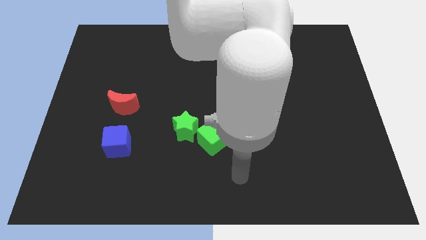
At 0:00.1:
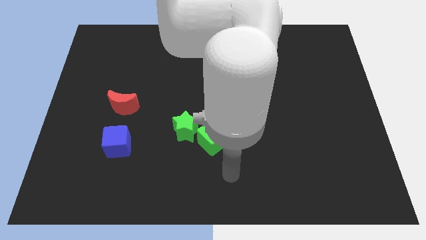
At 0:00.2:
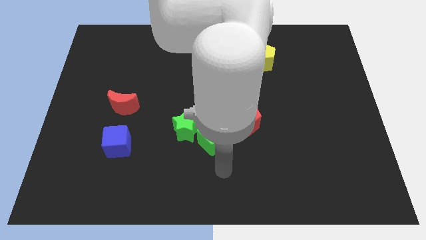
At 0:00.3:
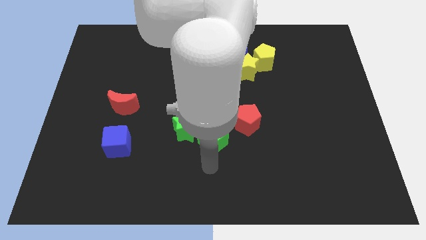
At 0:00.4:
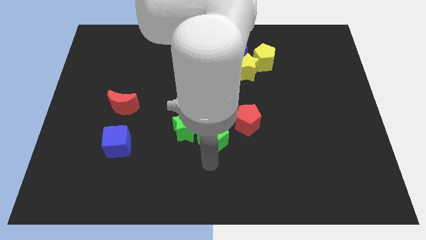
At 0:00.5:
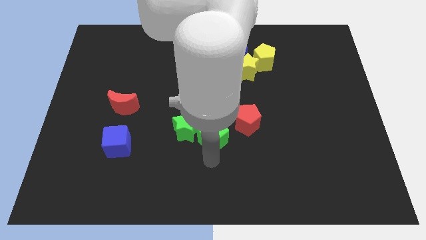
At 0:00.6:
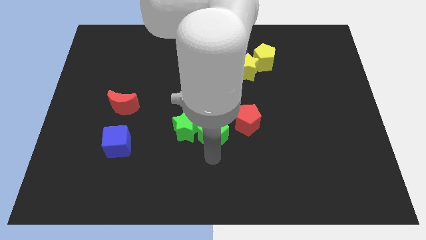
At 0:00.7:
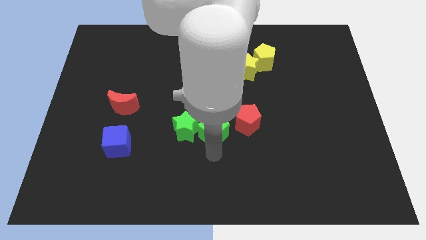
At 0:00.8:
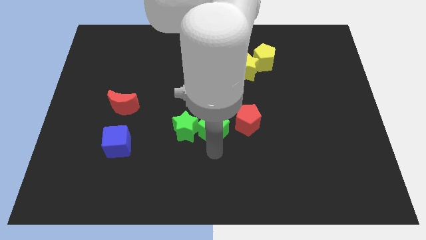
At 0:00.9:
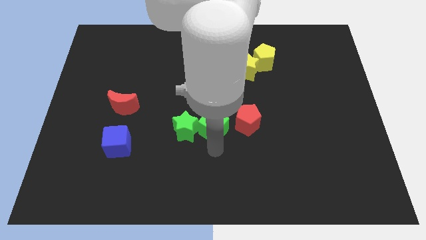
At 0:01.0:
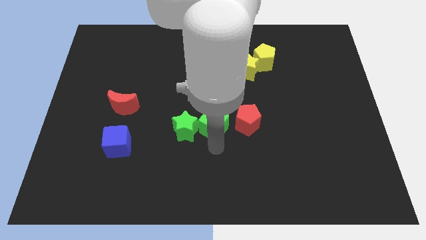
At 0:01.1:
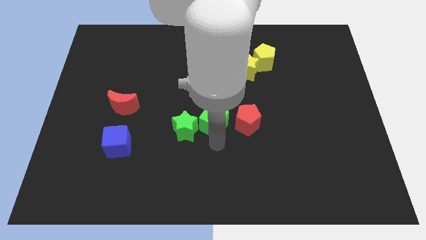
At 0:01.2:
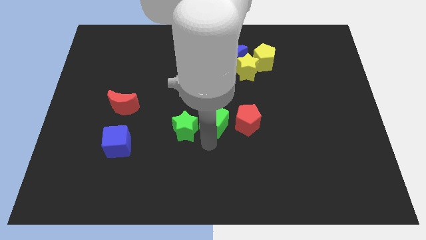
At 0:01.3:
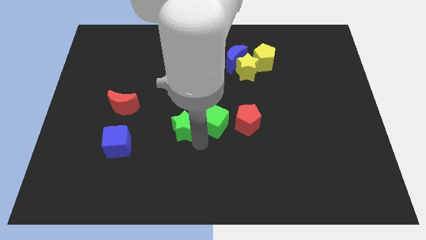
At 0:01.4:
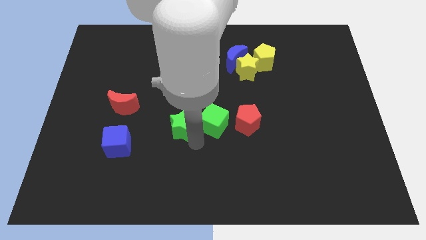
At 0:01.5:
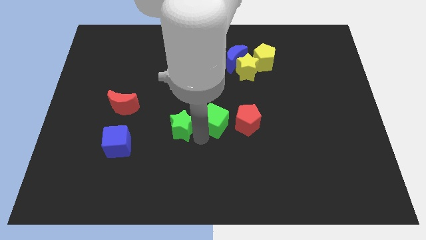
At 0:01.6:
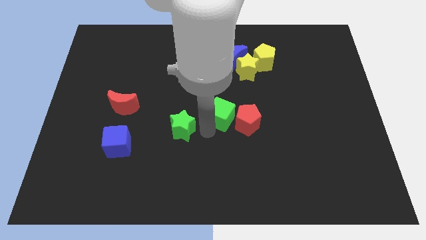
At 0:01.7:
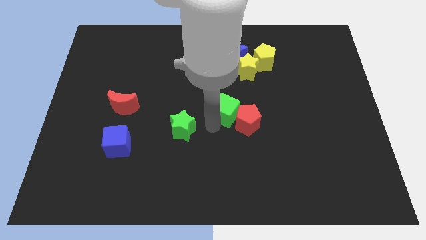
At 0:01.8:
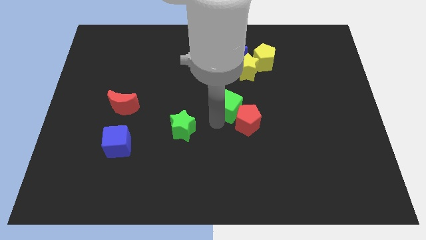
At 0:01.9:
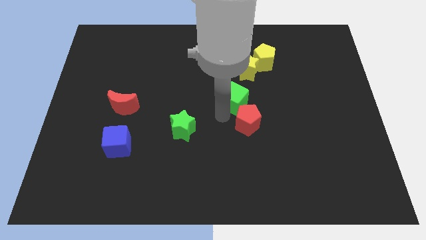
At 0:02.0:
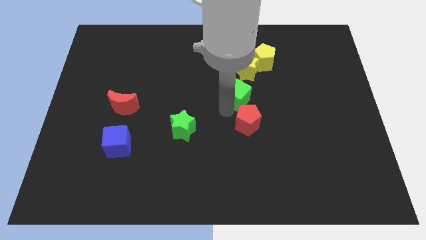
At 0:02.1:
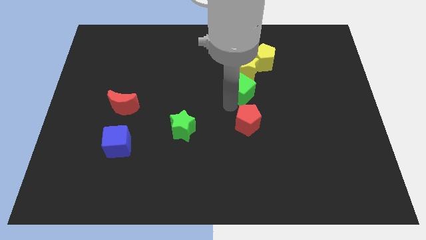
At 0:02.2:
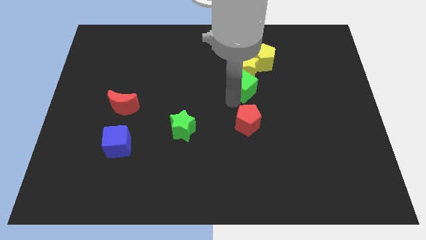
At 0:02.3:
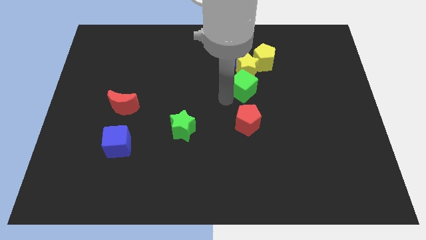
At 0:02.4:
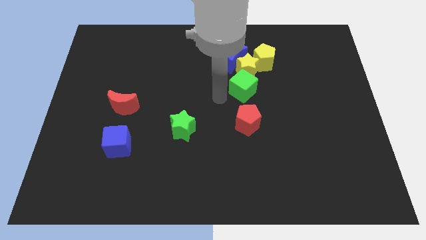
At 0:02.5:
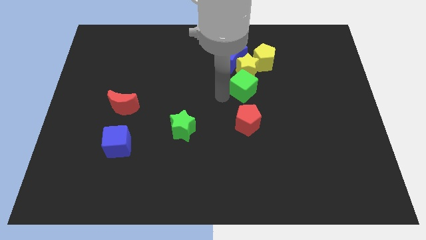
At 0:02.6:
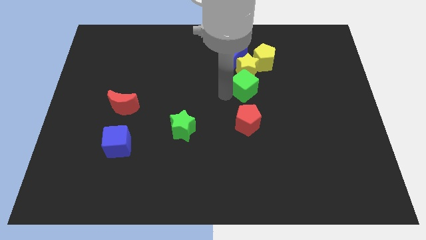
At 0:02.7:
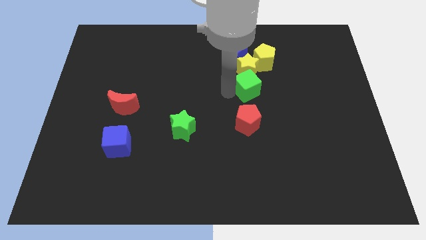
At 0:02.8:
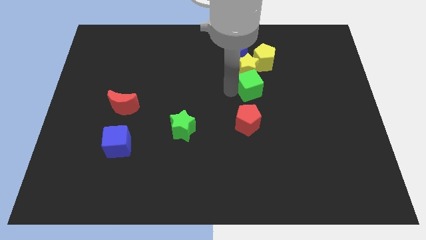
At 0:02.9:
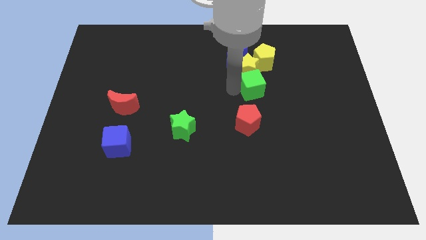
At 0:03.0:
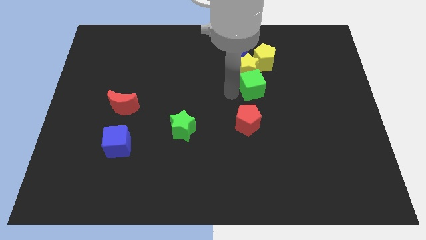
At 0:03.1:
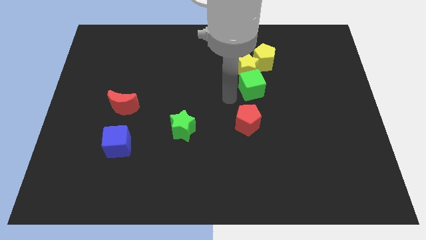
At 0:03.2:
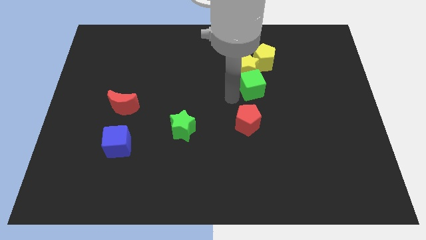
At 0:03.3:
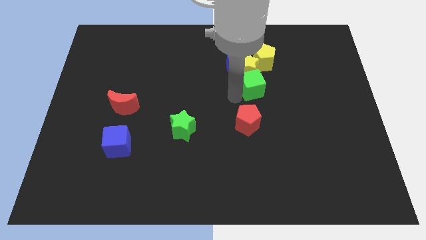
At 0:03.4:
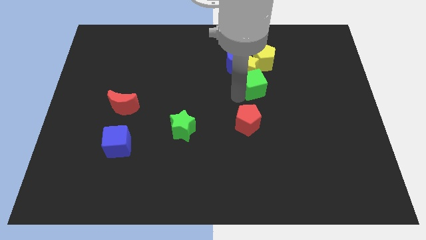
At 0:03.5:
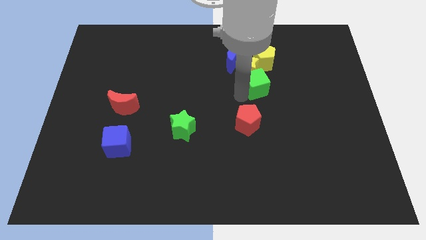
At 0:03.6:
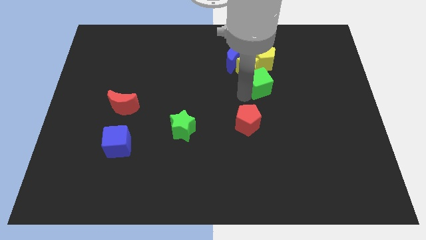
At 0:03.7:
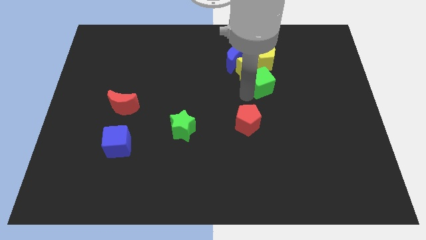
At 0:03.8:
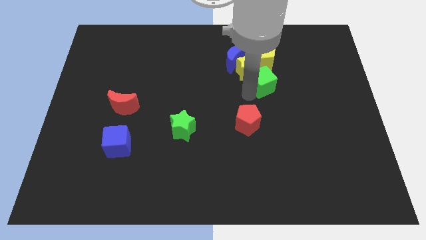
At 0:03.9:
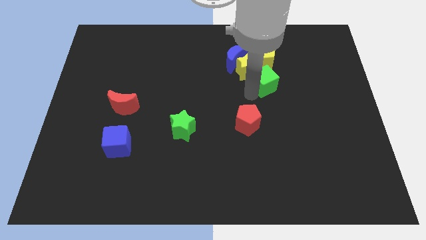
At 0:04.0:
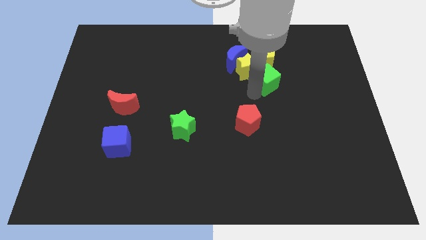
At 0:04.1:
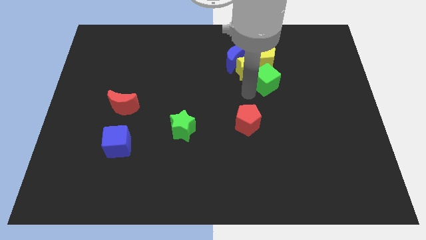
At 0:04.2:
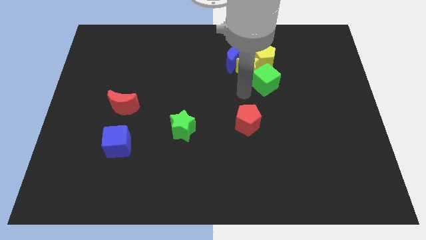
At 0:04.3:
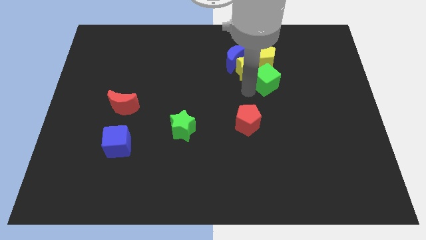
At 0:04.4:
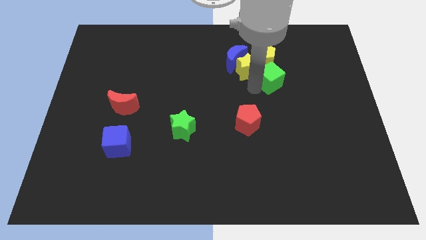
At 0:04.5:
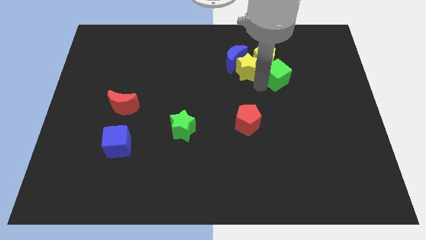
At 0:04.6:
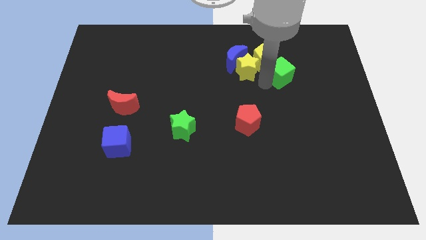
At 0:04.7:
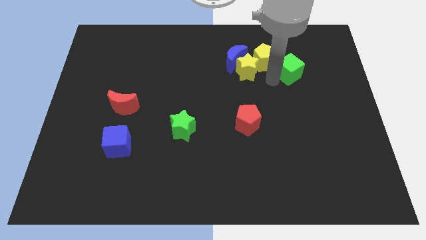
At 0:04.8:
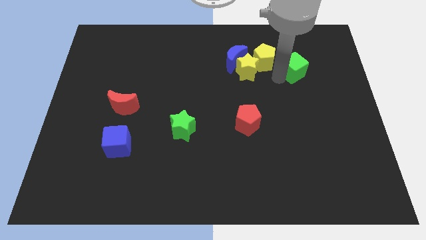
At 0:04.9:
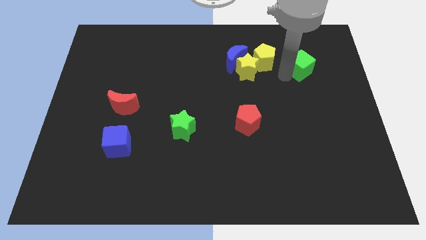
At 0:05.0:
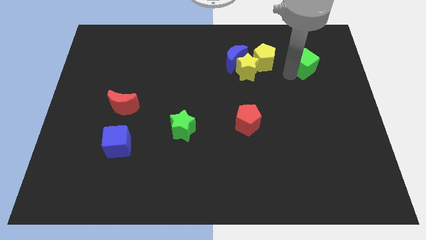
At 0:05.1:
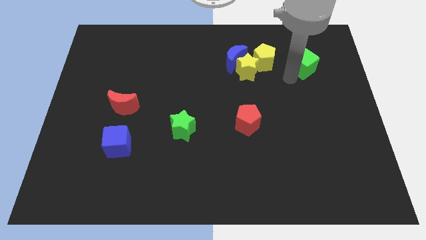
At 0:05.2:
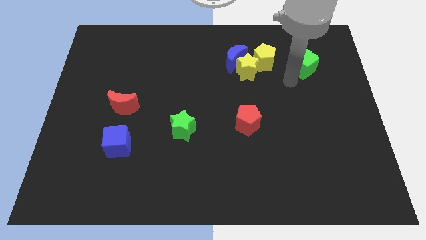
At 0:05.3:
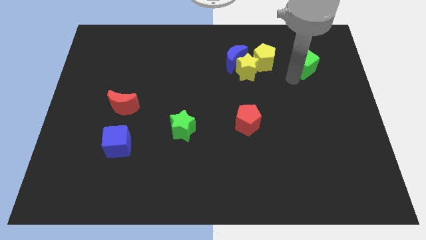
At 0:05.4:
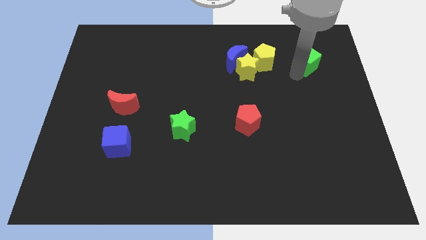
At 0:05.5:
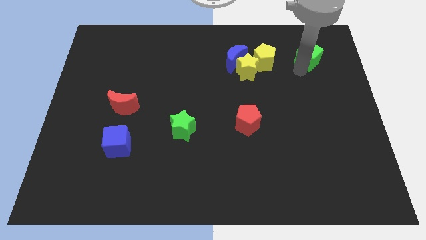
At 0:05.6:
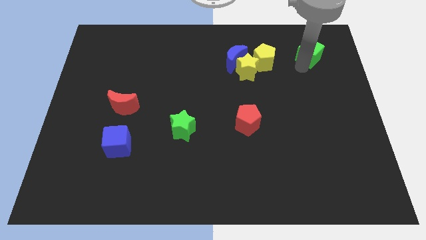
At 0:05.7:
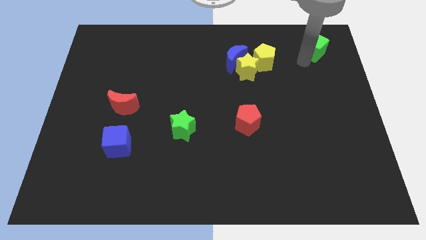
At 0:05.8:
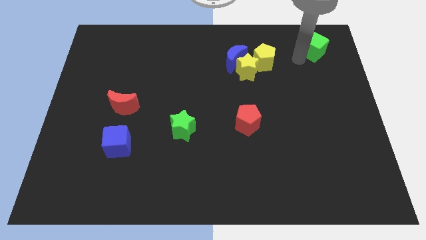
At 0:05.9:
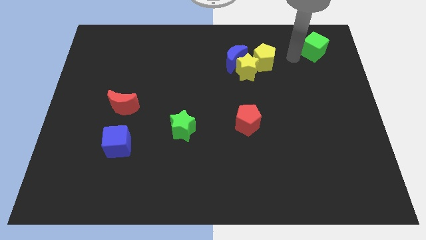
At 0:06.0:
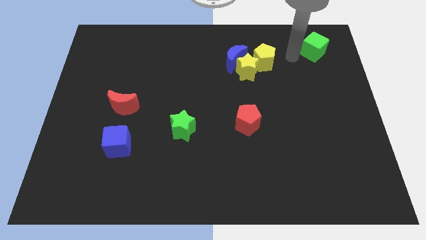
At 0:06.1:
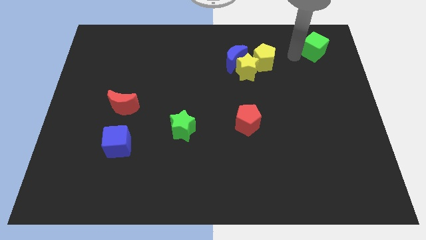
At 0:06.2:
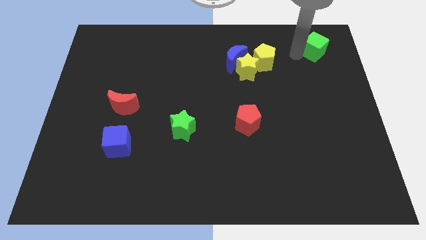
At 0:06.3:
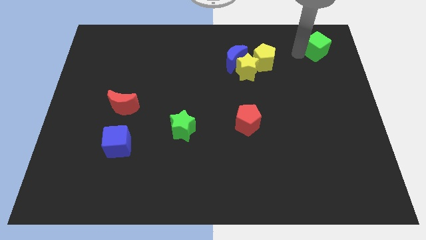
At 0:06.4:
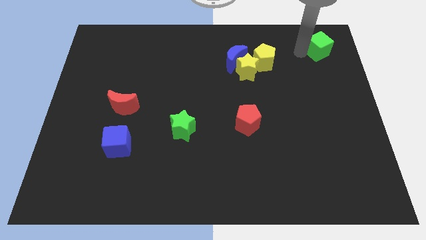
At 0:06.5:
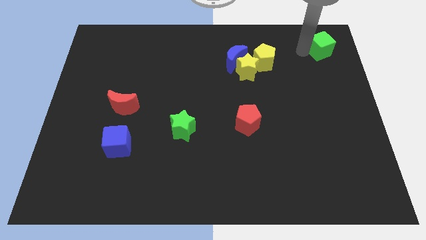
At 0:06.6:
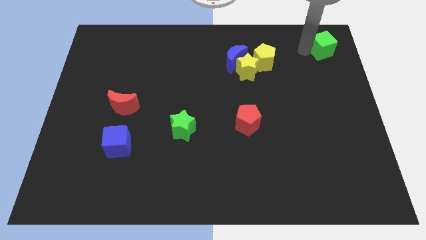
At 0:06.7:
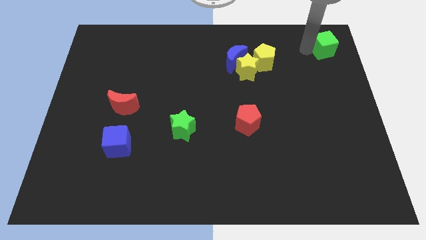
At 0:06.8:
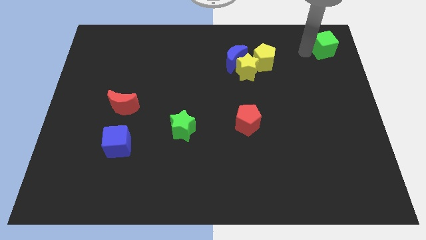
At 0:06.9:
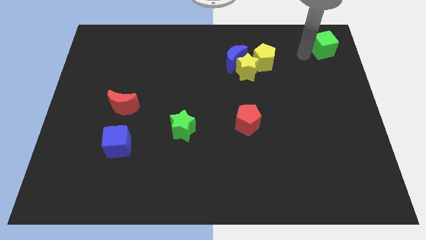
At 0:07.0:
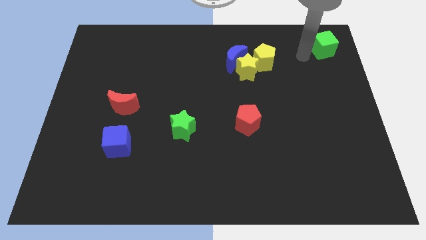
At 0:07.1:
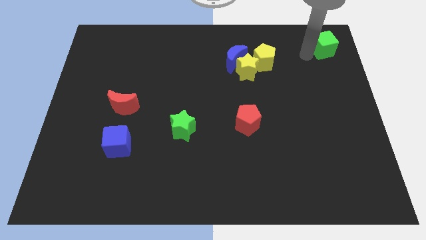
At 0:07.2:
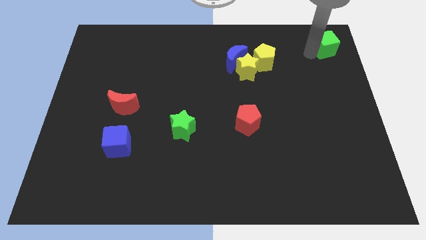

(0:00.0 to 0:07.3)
put the green cube to the top right corner
